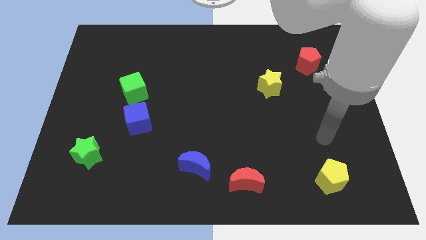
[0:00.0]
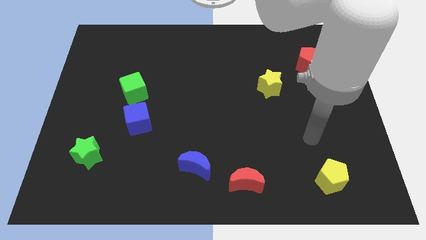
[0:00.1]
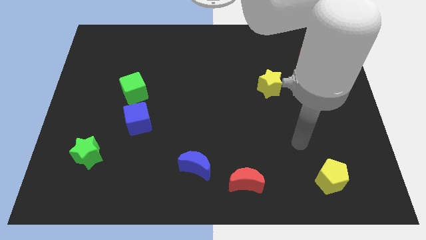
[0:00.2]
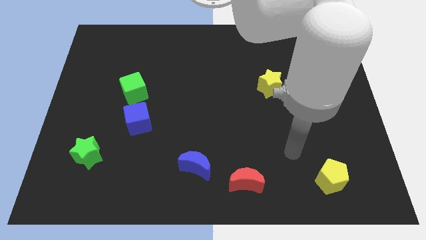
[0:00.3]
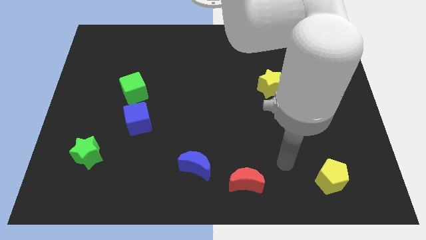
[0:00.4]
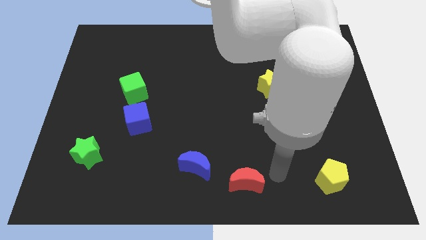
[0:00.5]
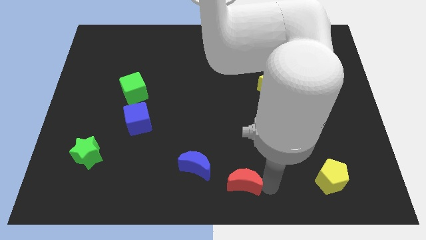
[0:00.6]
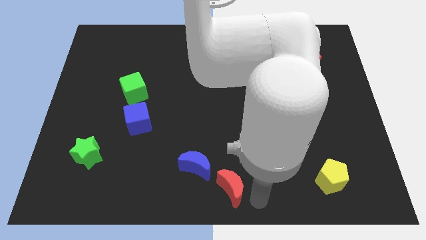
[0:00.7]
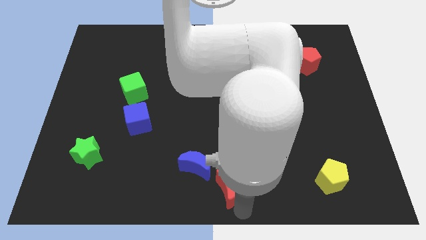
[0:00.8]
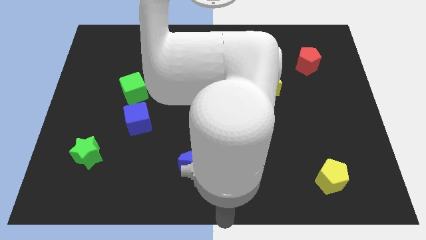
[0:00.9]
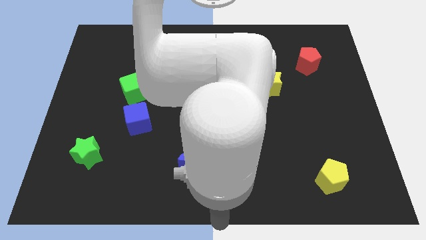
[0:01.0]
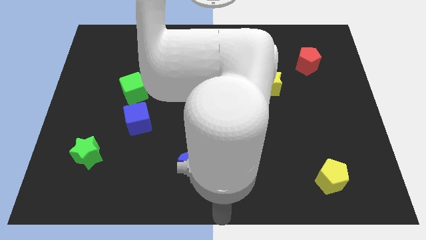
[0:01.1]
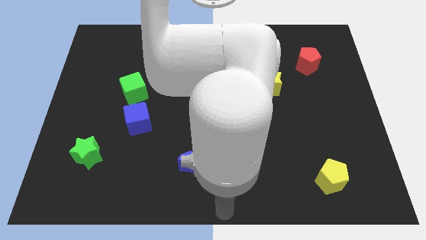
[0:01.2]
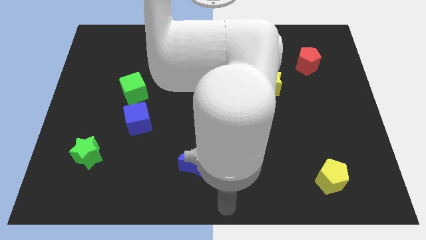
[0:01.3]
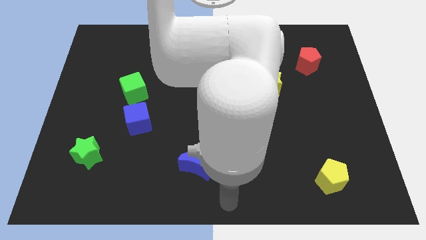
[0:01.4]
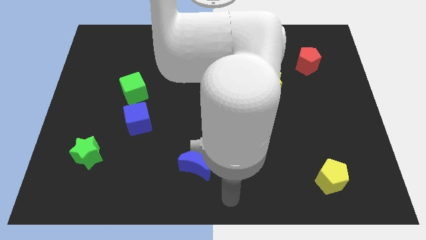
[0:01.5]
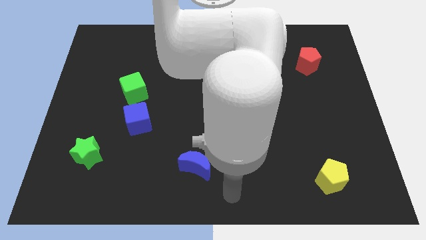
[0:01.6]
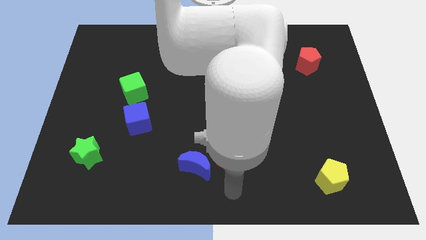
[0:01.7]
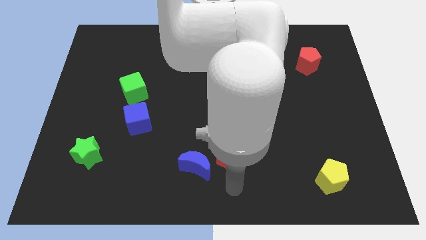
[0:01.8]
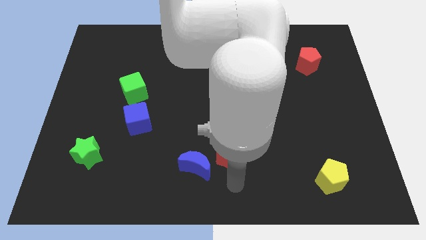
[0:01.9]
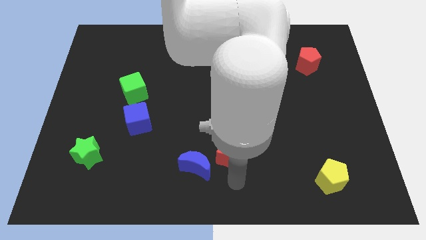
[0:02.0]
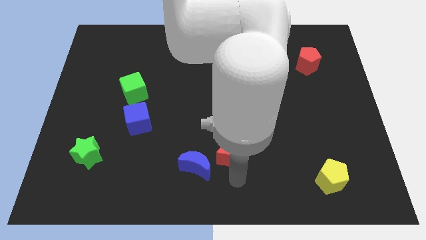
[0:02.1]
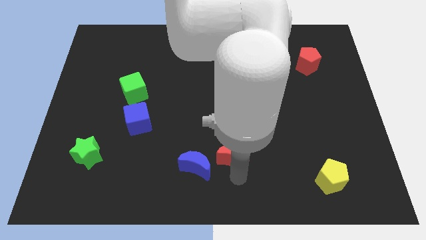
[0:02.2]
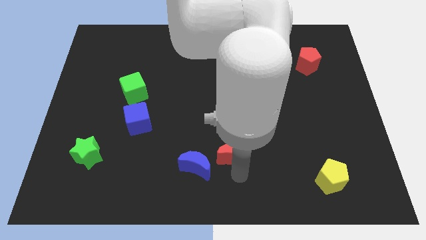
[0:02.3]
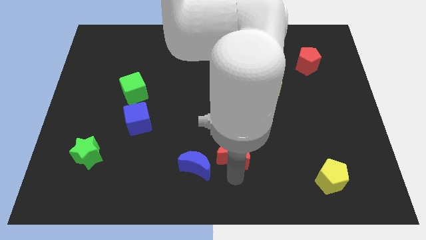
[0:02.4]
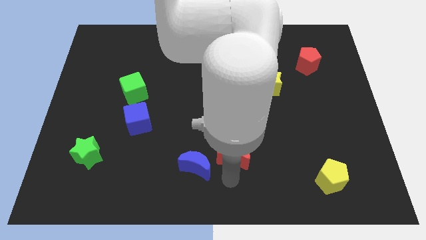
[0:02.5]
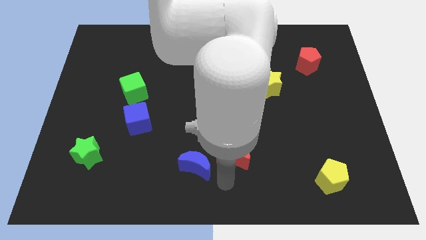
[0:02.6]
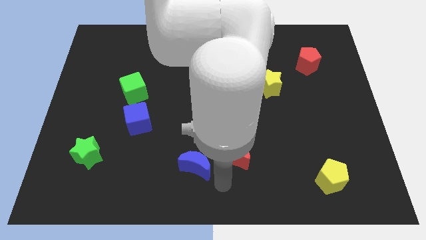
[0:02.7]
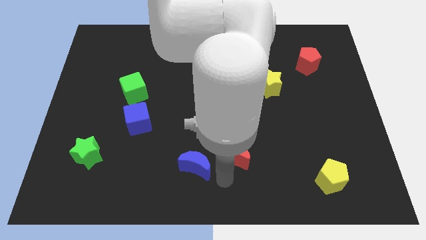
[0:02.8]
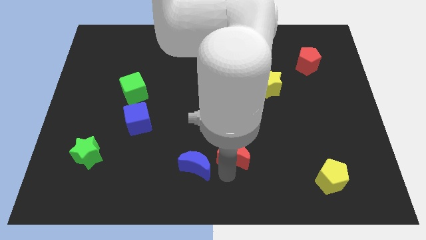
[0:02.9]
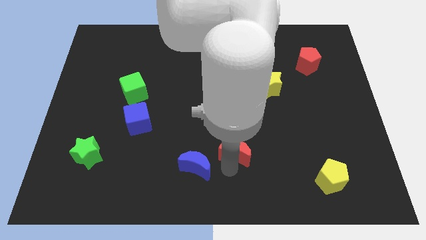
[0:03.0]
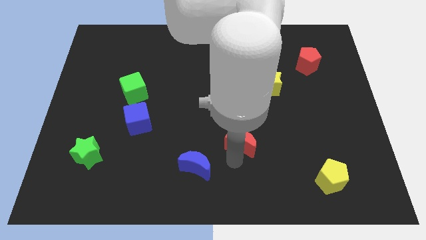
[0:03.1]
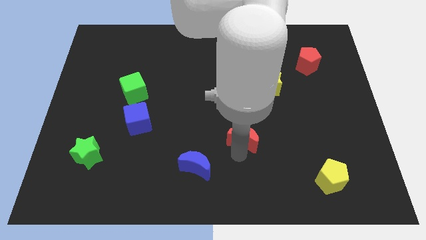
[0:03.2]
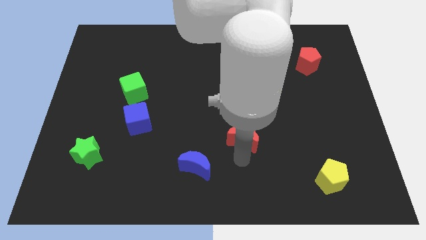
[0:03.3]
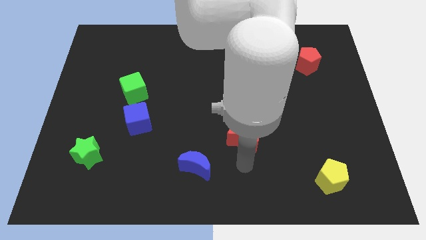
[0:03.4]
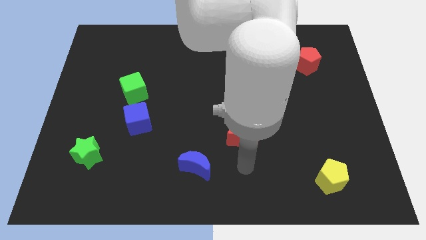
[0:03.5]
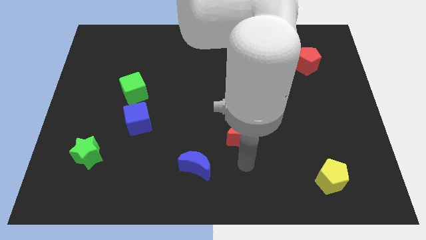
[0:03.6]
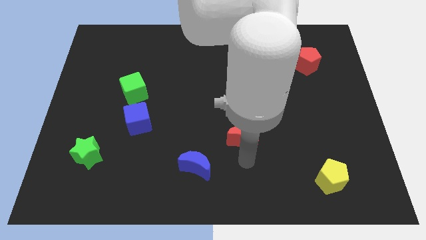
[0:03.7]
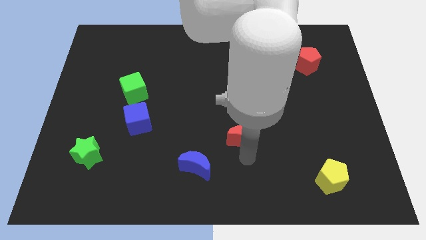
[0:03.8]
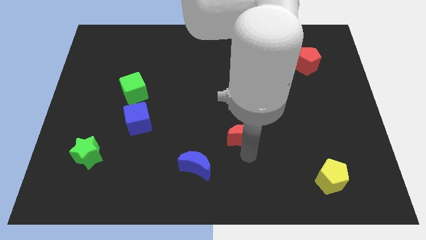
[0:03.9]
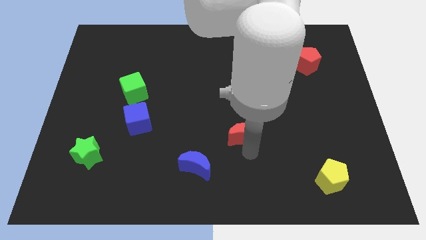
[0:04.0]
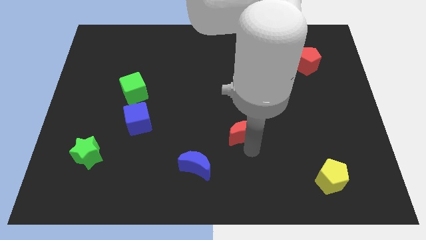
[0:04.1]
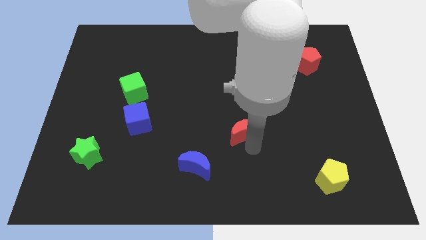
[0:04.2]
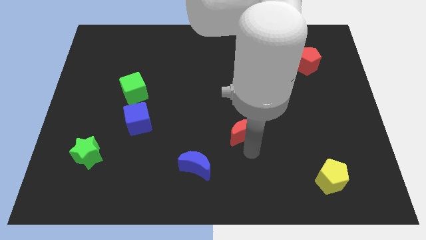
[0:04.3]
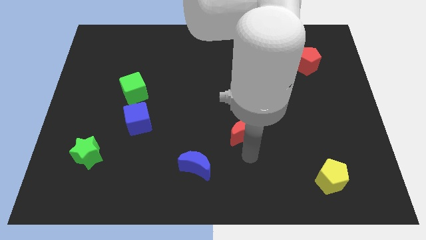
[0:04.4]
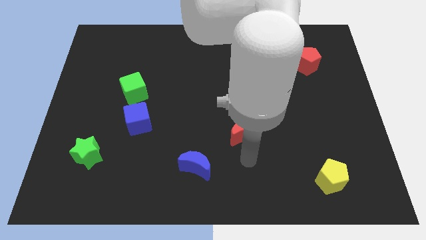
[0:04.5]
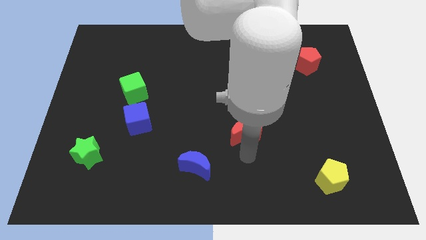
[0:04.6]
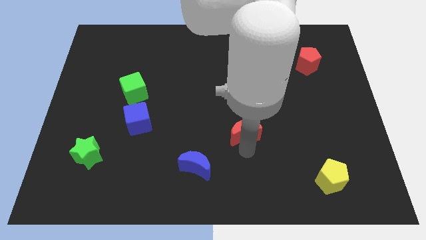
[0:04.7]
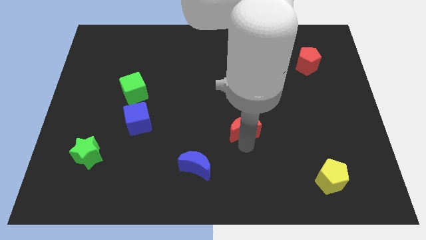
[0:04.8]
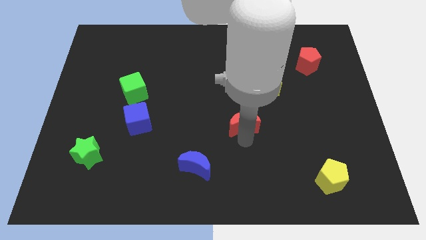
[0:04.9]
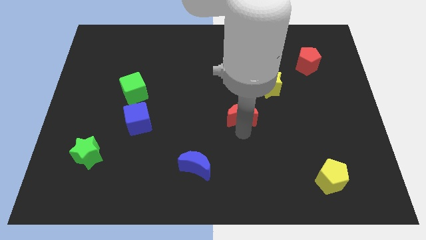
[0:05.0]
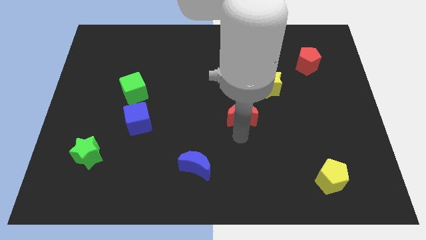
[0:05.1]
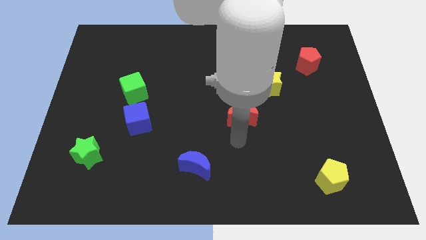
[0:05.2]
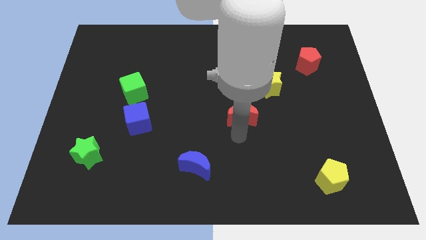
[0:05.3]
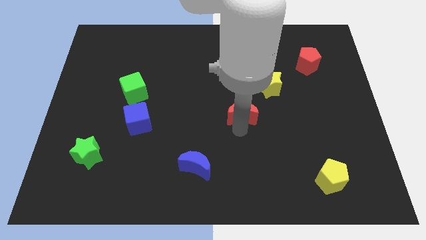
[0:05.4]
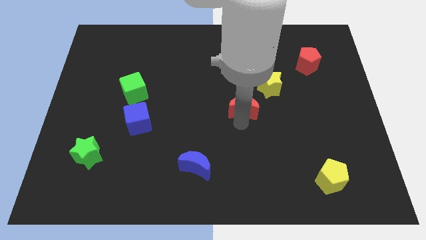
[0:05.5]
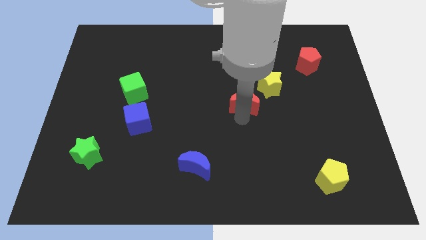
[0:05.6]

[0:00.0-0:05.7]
push the red moon up

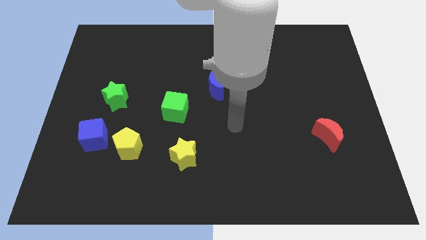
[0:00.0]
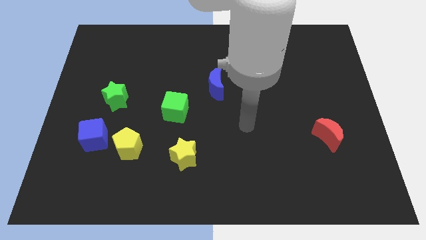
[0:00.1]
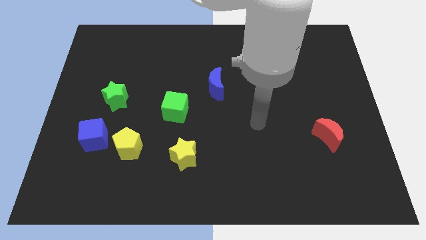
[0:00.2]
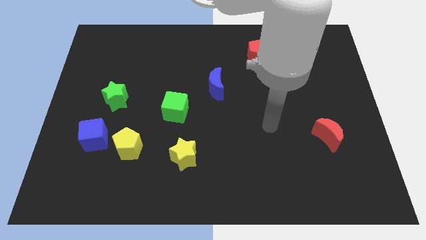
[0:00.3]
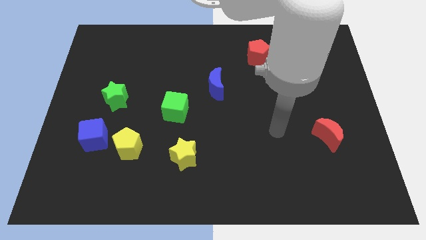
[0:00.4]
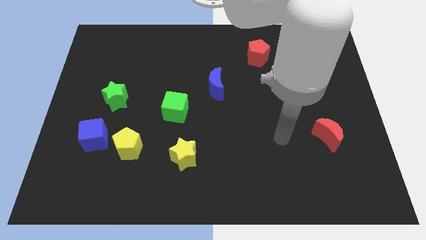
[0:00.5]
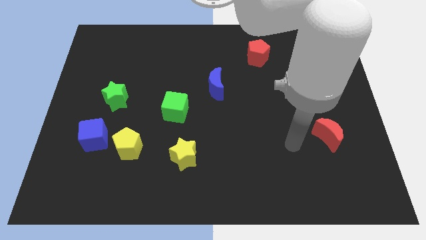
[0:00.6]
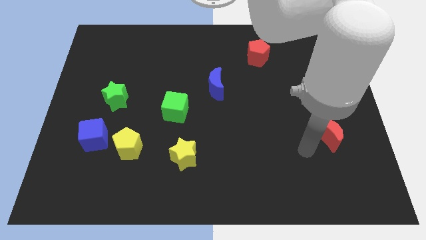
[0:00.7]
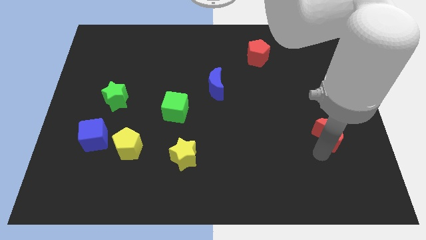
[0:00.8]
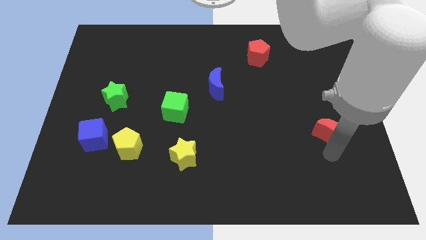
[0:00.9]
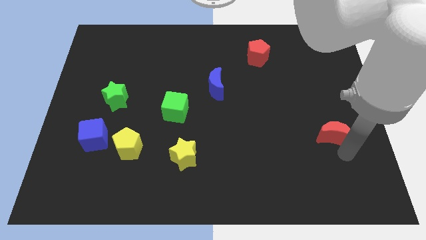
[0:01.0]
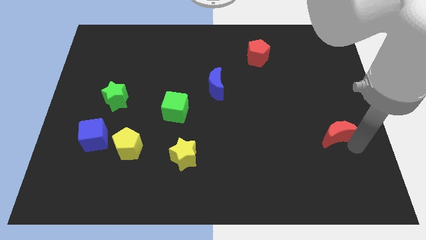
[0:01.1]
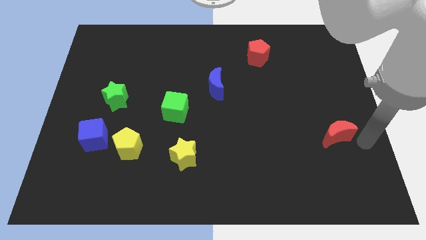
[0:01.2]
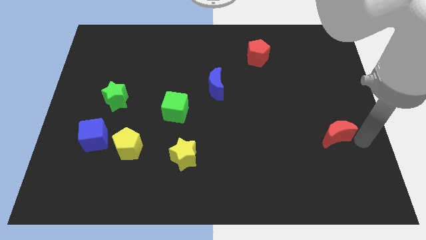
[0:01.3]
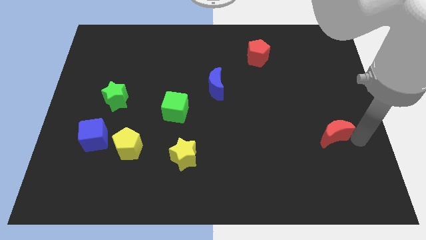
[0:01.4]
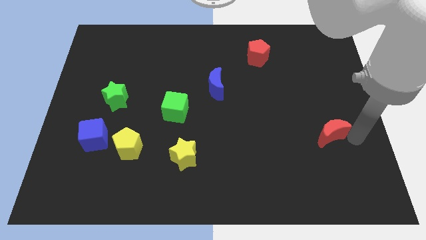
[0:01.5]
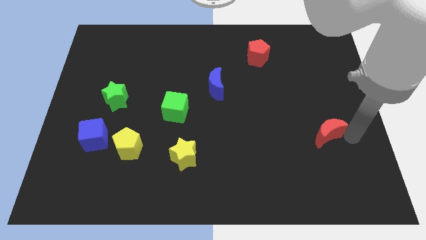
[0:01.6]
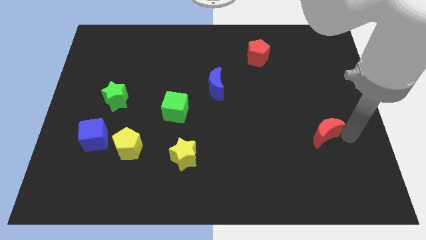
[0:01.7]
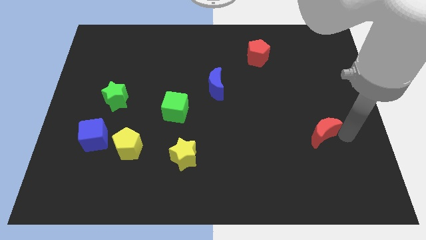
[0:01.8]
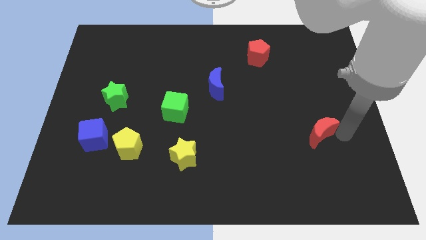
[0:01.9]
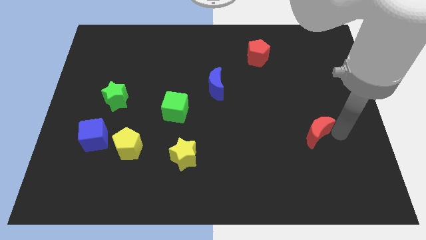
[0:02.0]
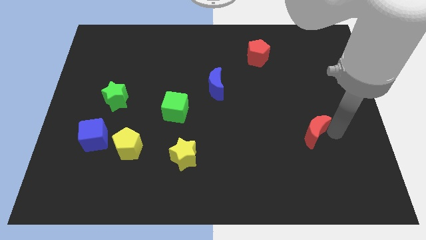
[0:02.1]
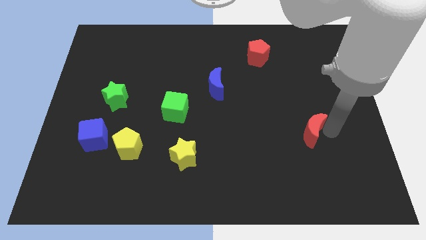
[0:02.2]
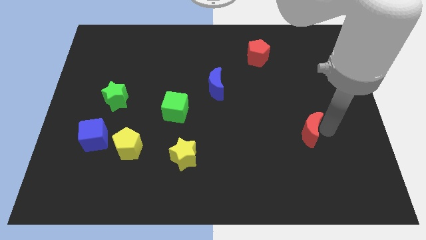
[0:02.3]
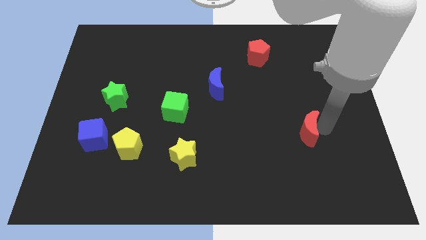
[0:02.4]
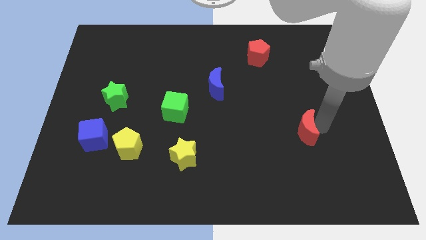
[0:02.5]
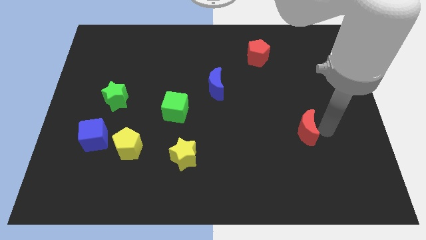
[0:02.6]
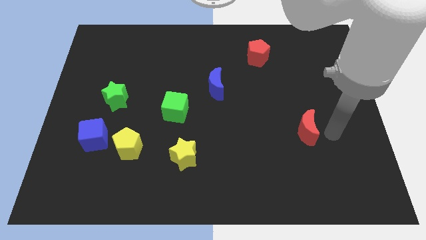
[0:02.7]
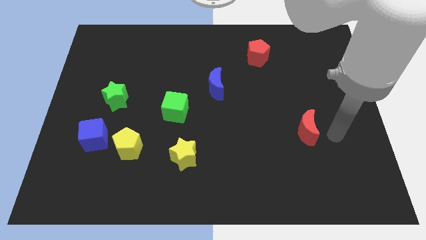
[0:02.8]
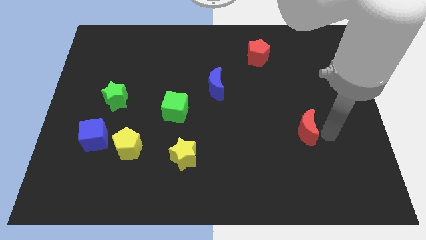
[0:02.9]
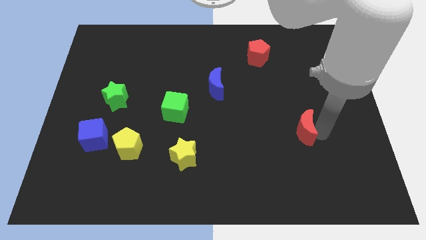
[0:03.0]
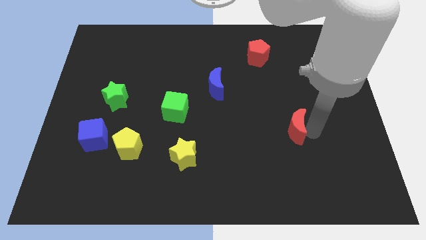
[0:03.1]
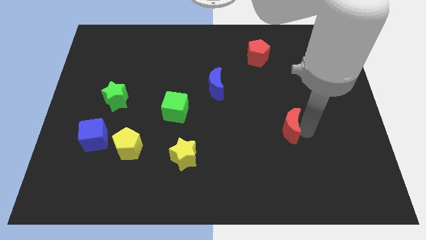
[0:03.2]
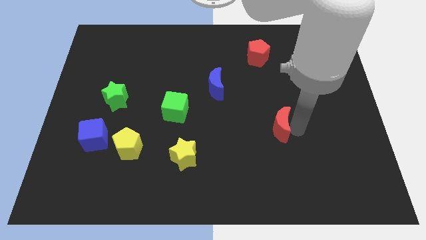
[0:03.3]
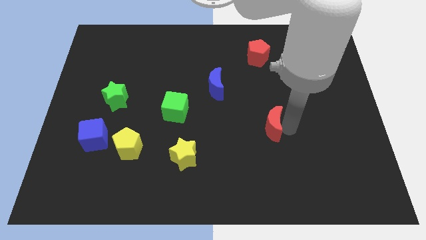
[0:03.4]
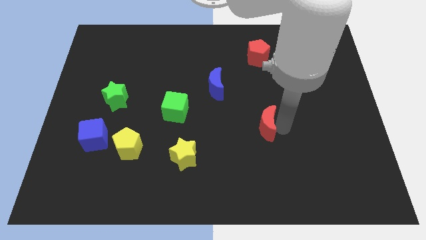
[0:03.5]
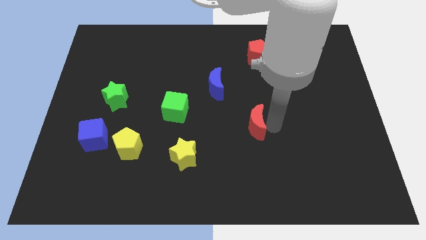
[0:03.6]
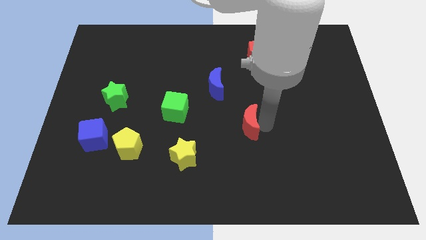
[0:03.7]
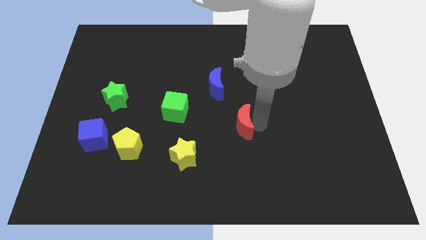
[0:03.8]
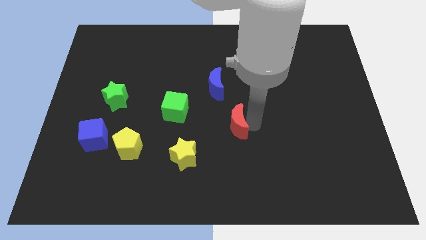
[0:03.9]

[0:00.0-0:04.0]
push the red moon to the left
